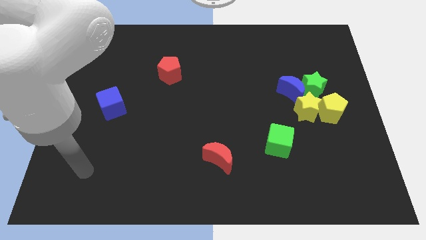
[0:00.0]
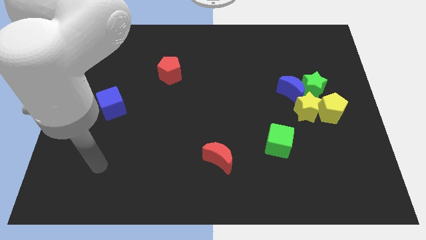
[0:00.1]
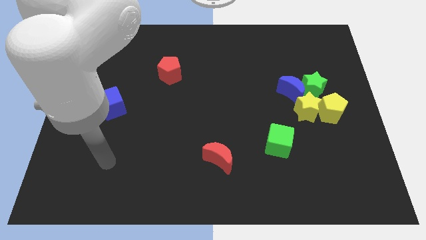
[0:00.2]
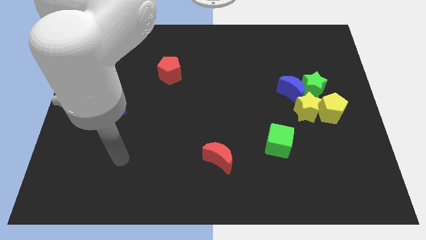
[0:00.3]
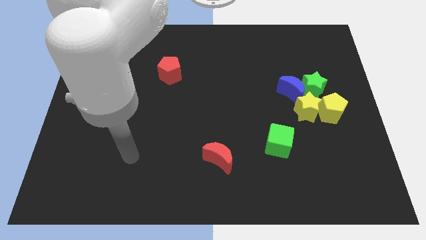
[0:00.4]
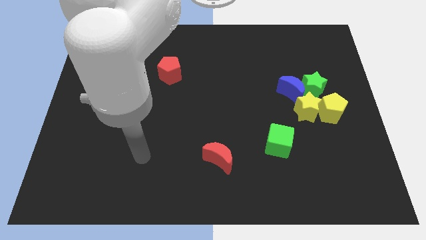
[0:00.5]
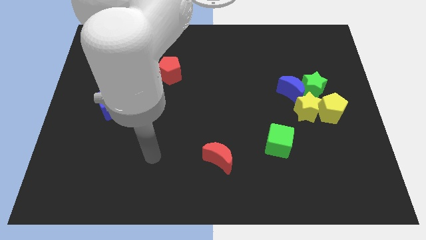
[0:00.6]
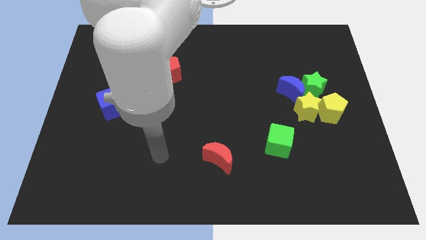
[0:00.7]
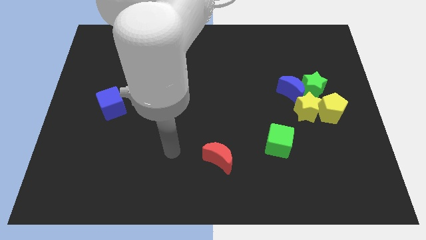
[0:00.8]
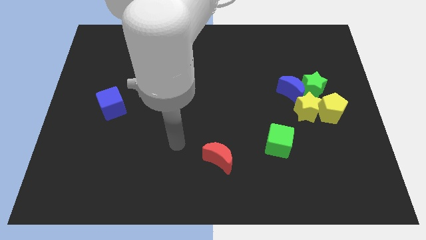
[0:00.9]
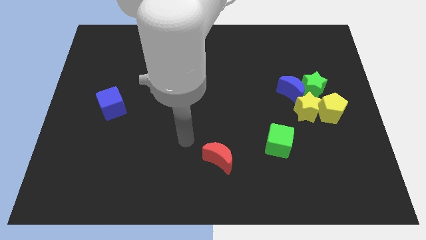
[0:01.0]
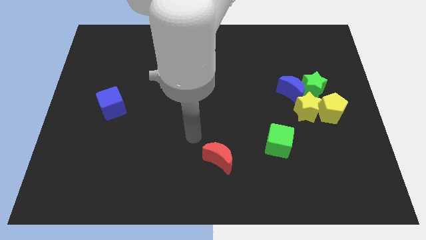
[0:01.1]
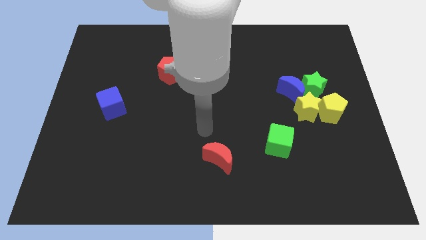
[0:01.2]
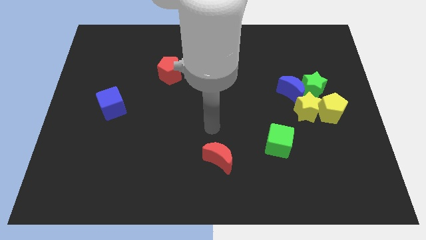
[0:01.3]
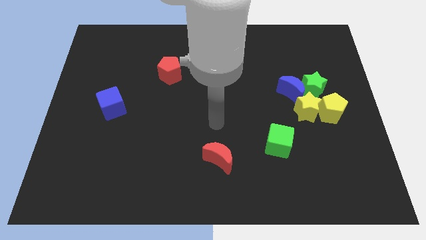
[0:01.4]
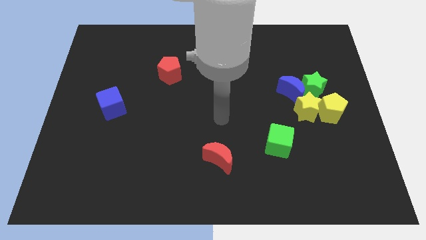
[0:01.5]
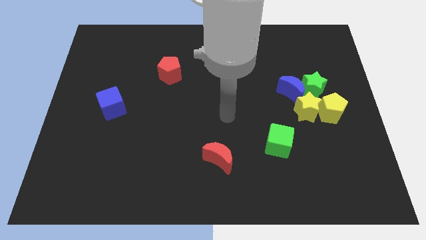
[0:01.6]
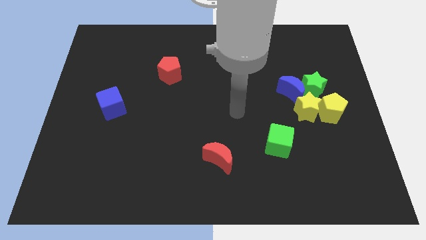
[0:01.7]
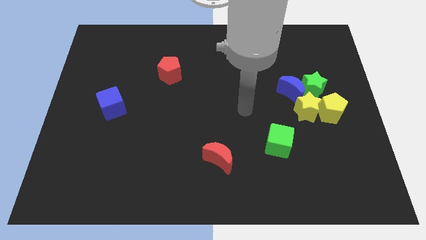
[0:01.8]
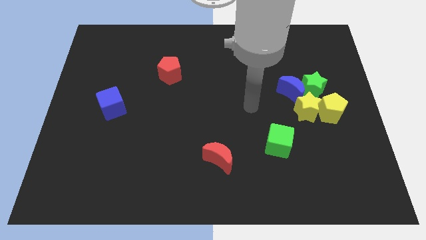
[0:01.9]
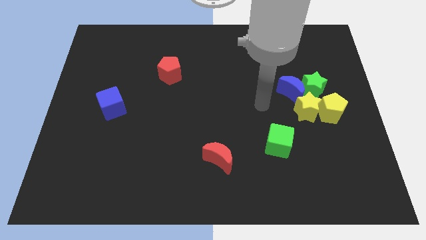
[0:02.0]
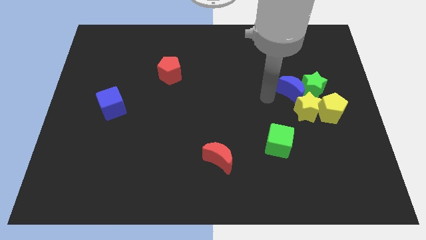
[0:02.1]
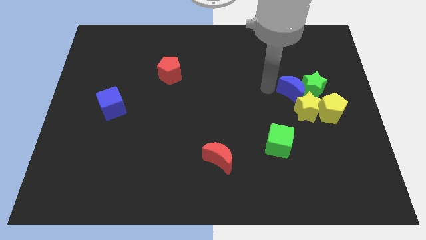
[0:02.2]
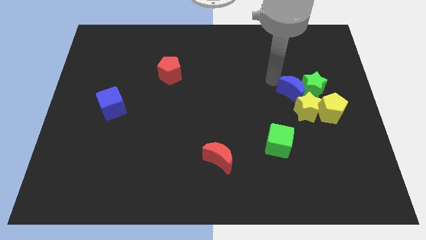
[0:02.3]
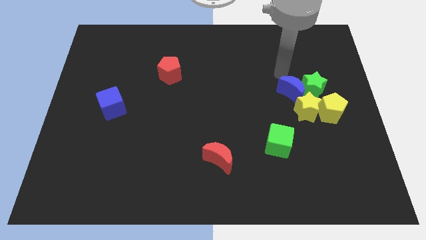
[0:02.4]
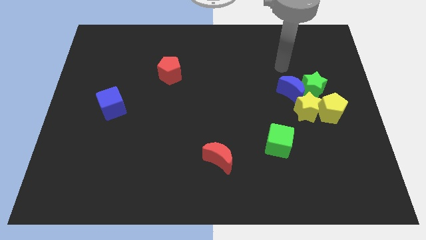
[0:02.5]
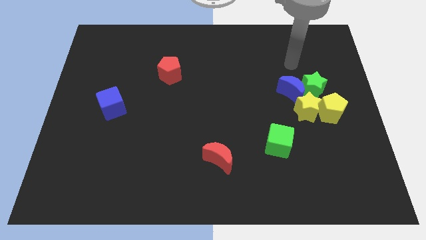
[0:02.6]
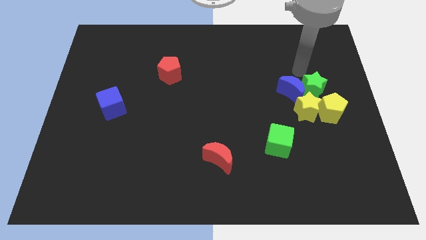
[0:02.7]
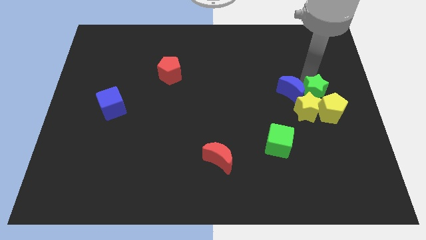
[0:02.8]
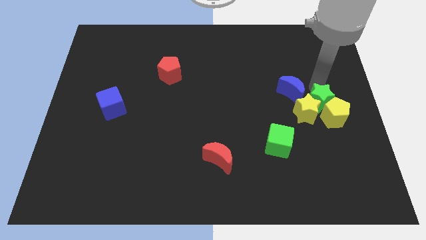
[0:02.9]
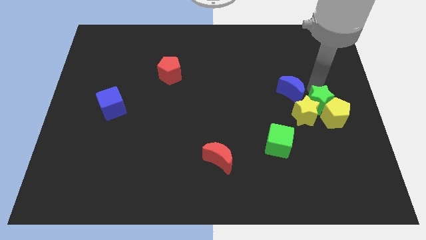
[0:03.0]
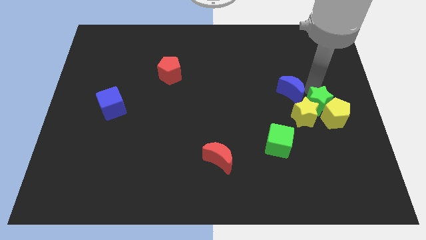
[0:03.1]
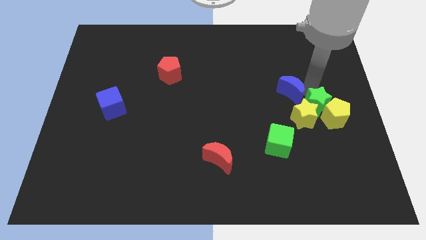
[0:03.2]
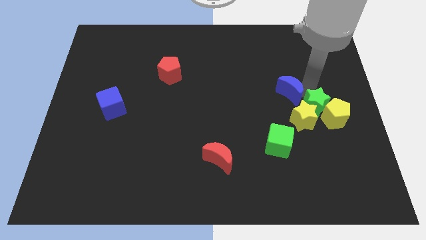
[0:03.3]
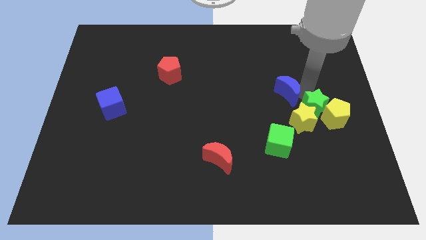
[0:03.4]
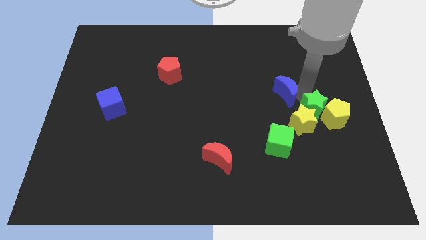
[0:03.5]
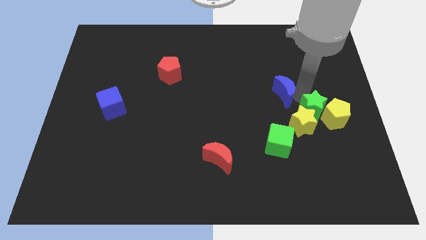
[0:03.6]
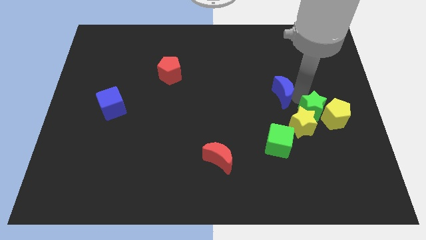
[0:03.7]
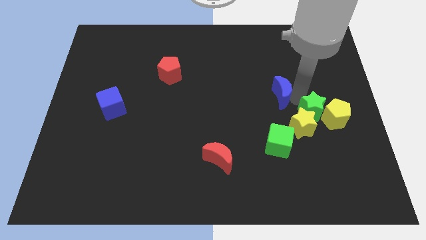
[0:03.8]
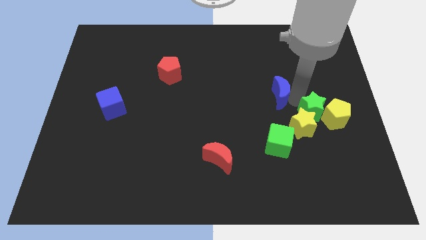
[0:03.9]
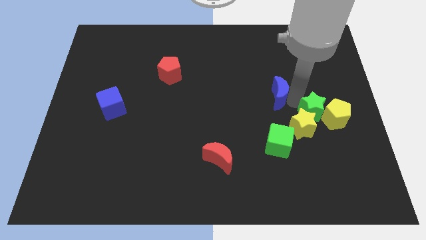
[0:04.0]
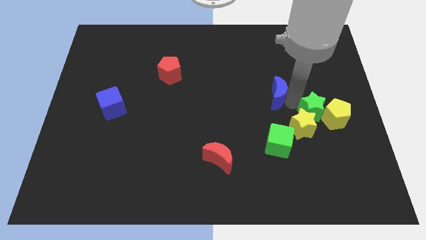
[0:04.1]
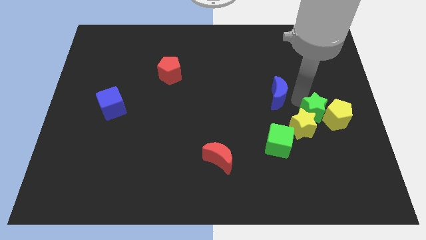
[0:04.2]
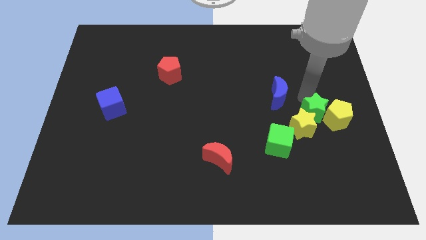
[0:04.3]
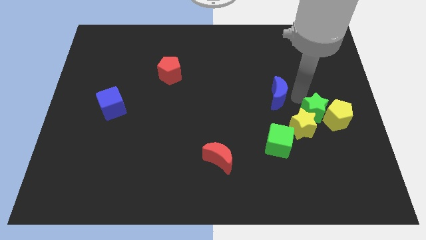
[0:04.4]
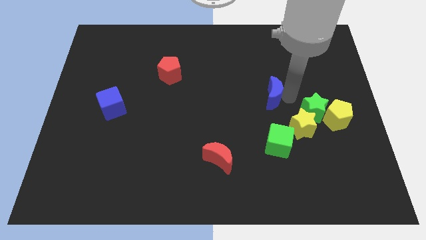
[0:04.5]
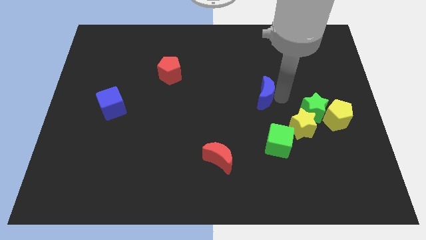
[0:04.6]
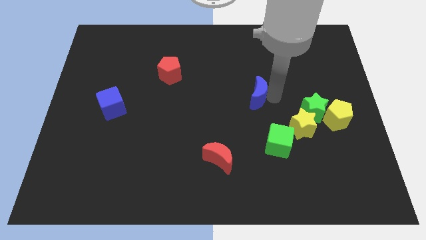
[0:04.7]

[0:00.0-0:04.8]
slide the blue moon left a little

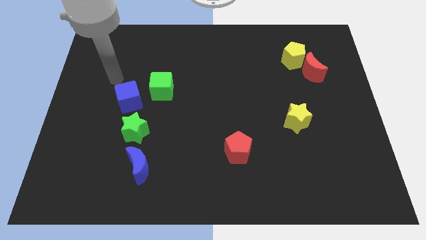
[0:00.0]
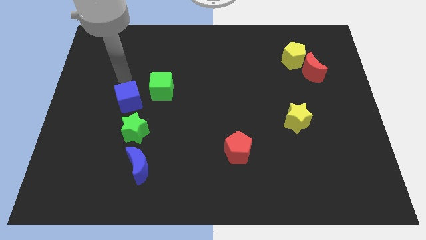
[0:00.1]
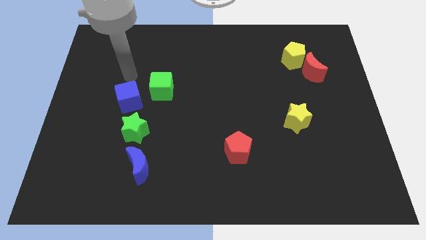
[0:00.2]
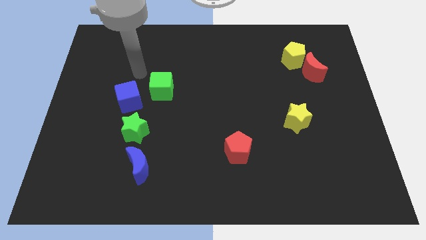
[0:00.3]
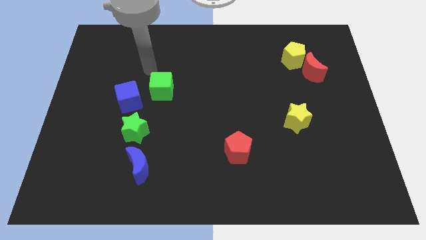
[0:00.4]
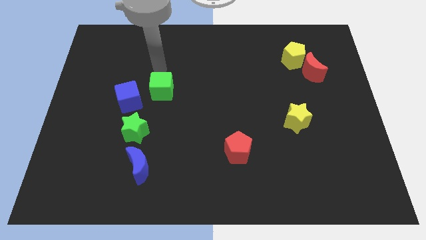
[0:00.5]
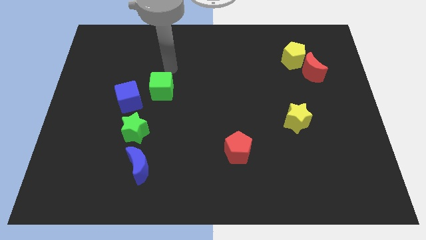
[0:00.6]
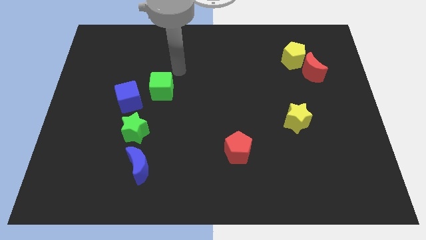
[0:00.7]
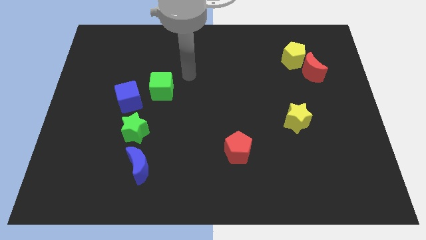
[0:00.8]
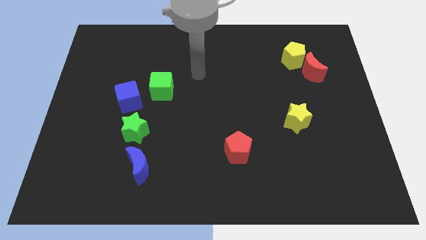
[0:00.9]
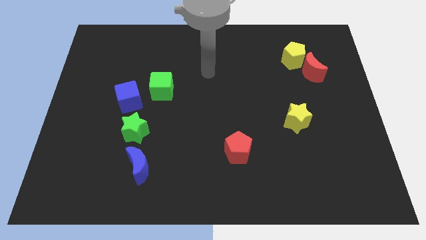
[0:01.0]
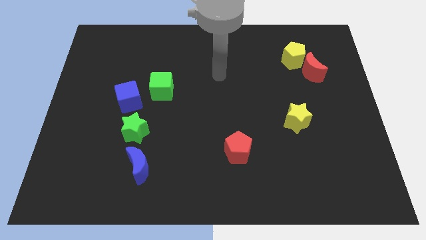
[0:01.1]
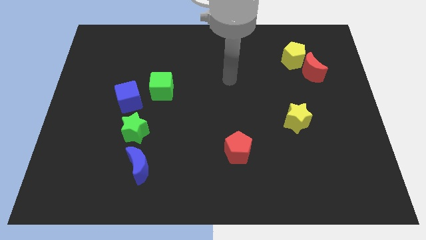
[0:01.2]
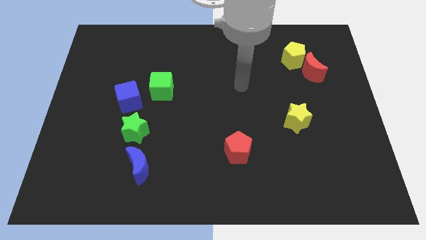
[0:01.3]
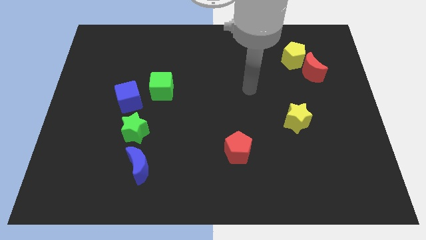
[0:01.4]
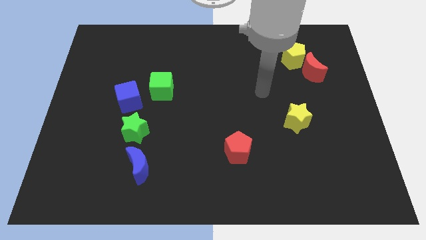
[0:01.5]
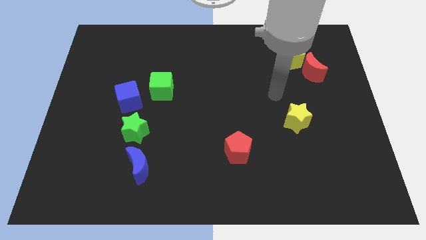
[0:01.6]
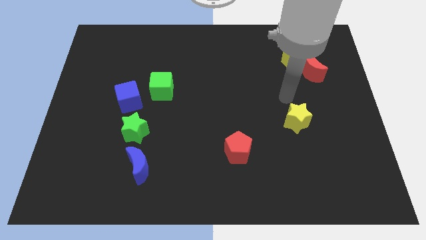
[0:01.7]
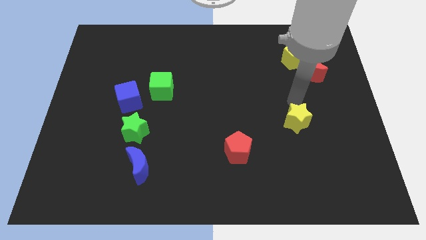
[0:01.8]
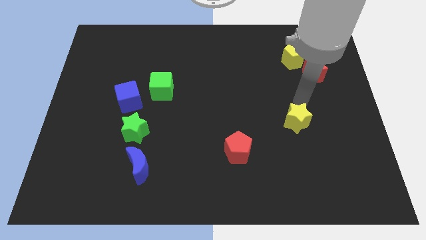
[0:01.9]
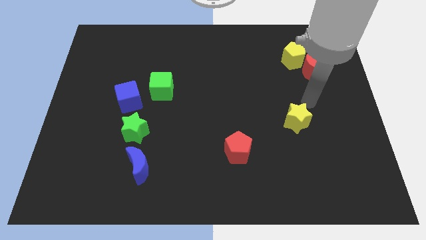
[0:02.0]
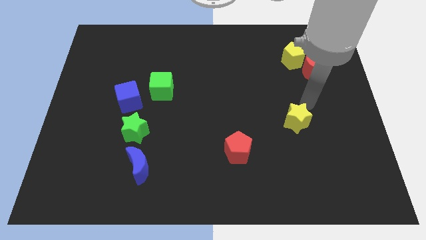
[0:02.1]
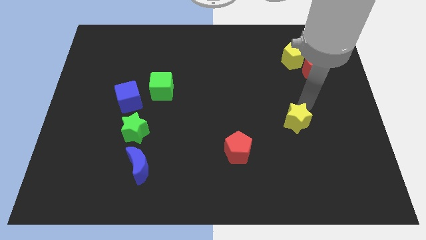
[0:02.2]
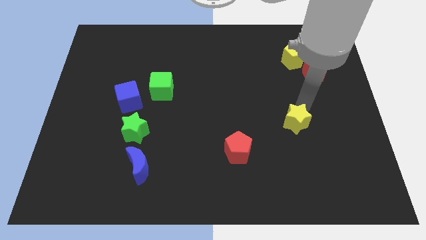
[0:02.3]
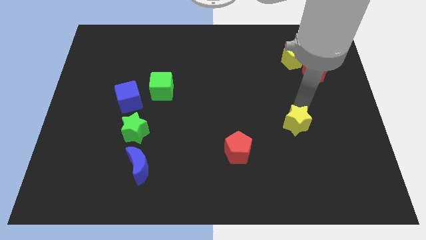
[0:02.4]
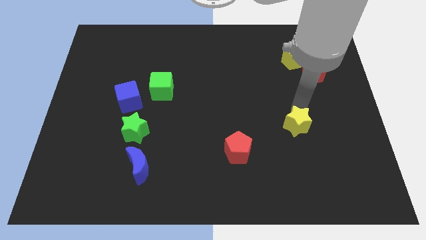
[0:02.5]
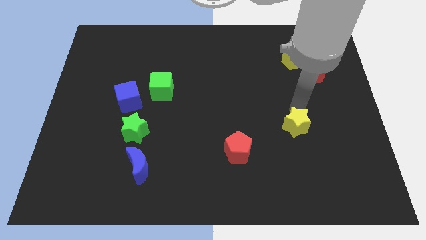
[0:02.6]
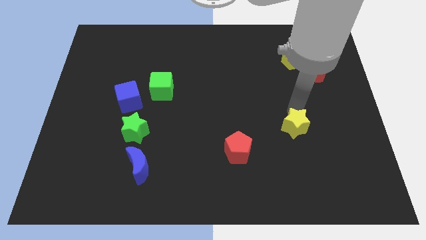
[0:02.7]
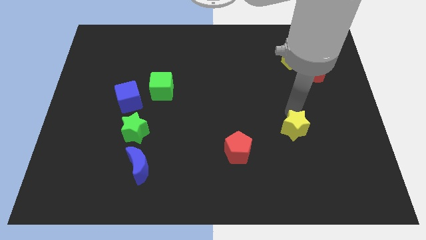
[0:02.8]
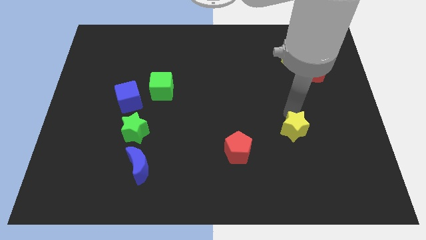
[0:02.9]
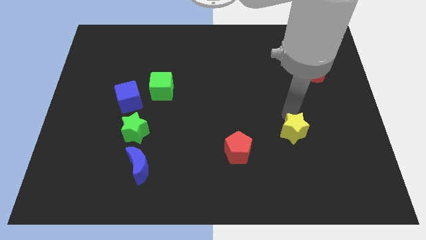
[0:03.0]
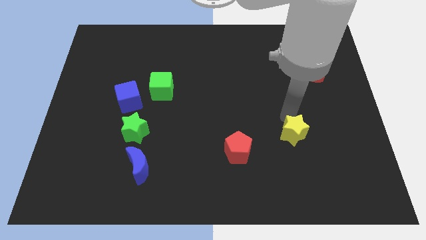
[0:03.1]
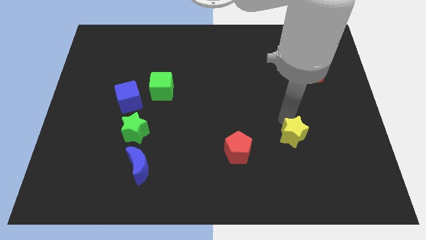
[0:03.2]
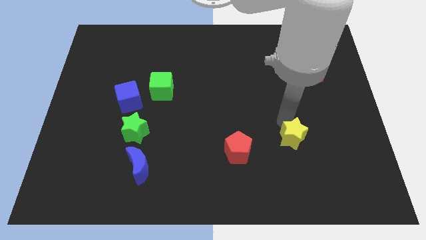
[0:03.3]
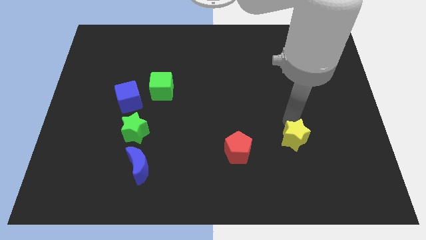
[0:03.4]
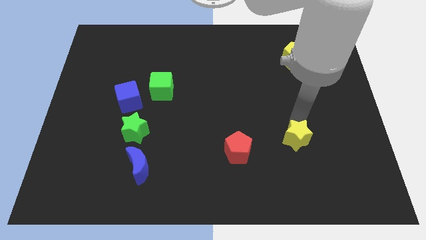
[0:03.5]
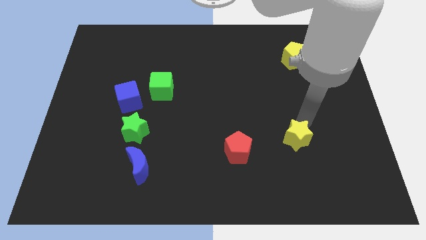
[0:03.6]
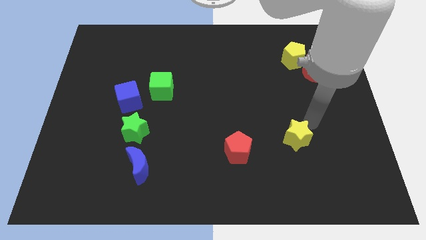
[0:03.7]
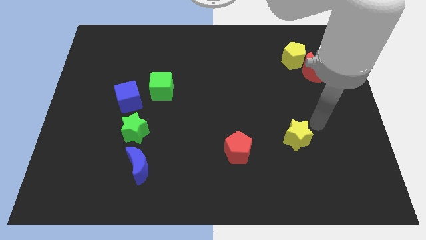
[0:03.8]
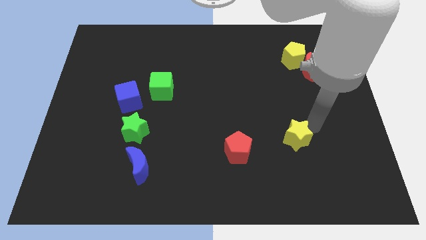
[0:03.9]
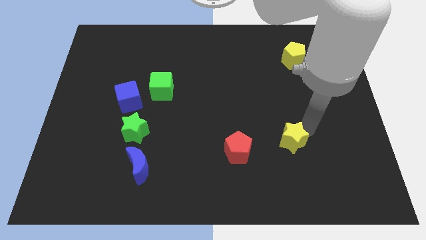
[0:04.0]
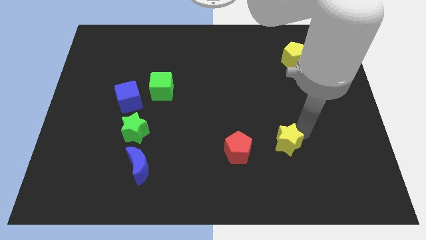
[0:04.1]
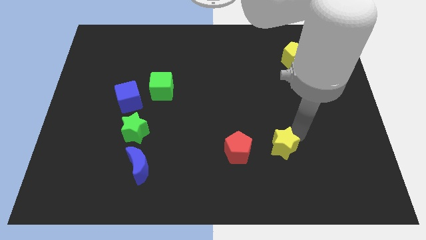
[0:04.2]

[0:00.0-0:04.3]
push the yellow star diagonally downwards and to the left a little bit
